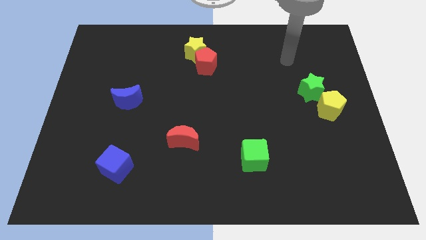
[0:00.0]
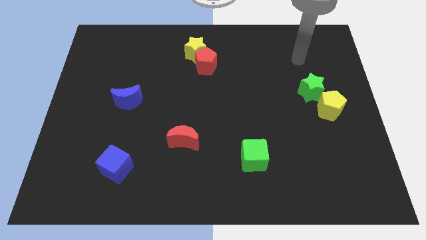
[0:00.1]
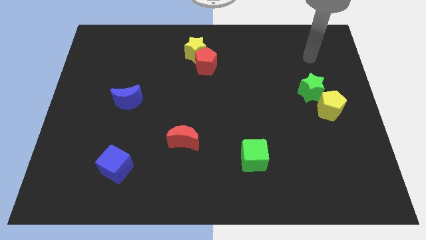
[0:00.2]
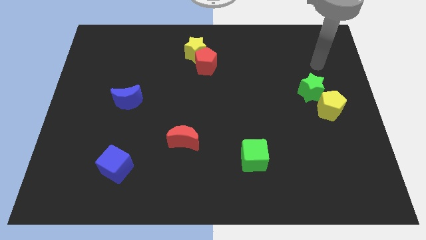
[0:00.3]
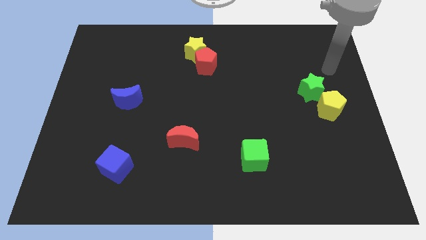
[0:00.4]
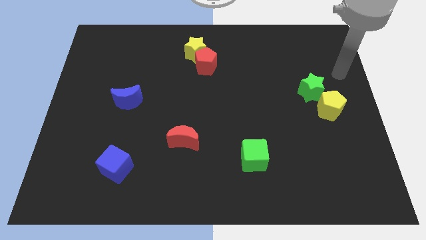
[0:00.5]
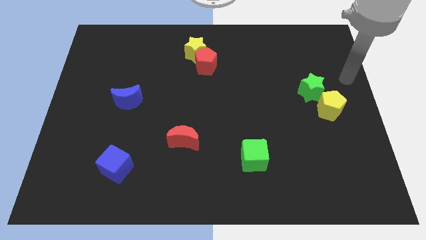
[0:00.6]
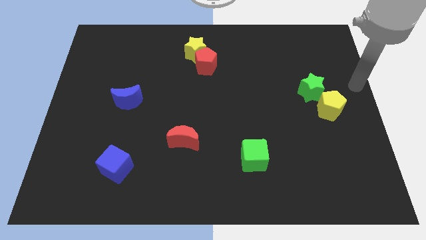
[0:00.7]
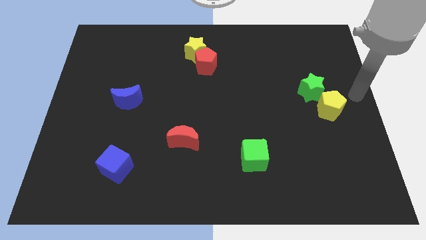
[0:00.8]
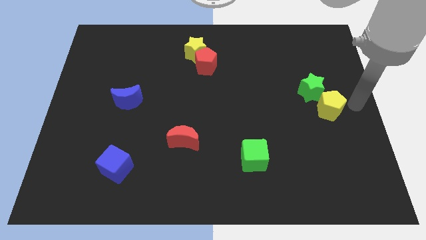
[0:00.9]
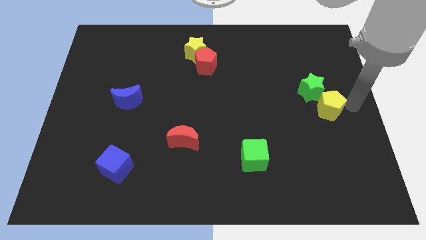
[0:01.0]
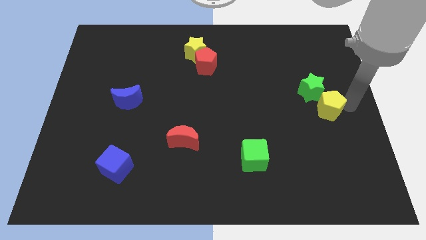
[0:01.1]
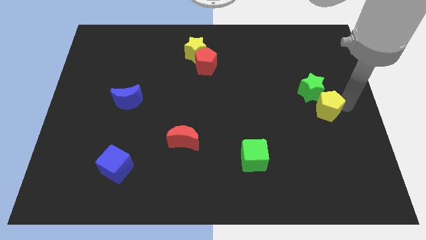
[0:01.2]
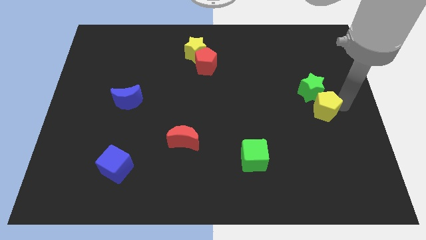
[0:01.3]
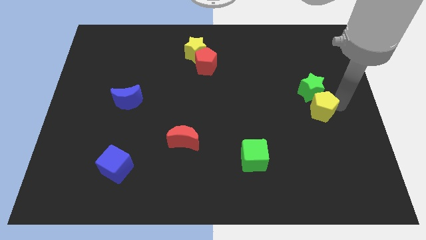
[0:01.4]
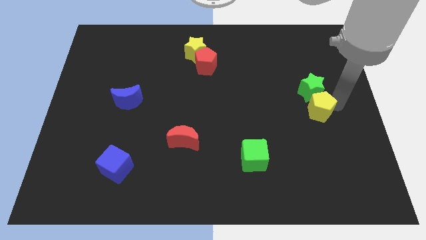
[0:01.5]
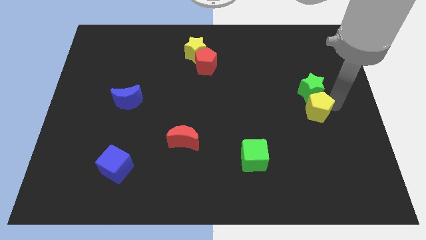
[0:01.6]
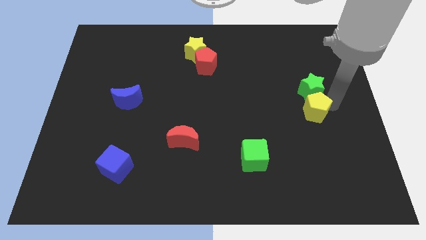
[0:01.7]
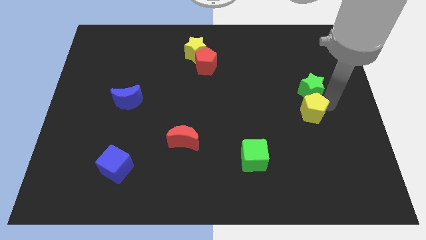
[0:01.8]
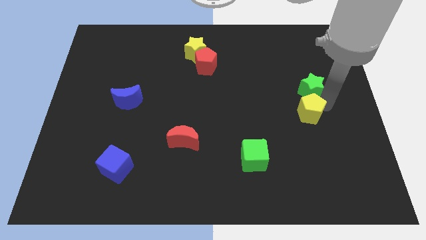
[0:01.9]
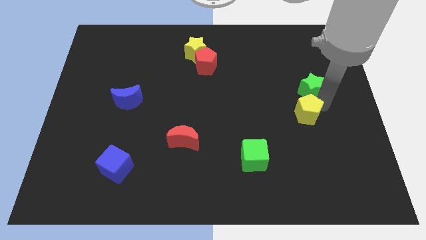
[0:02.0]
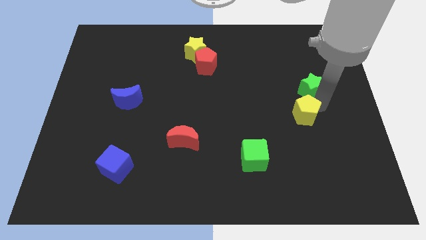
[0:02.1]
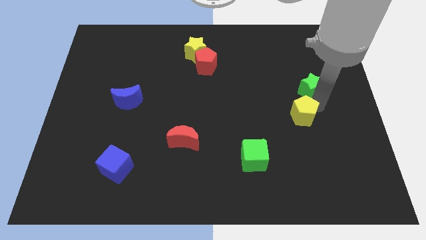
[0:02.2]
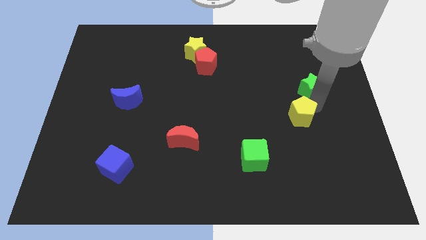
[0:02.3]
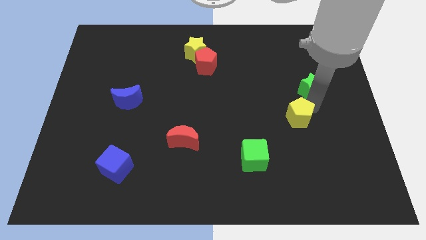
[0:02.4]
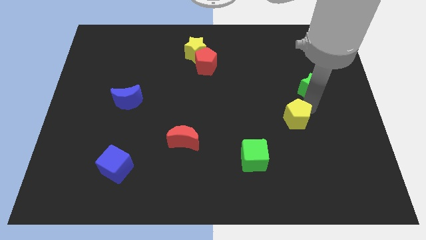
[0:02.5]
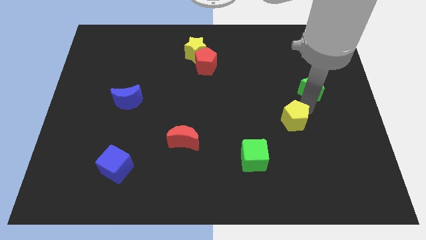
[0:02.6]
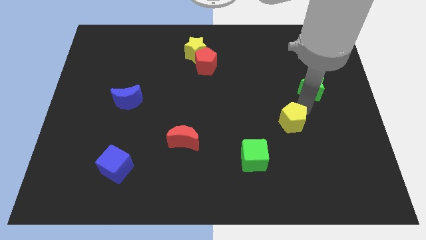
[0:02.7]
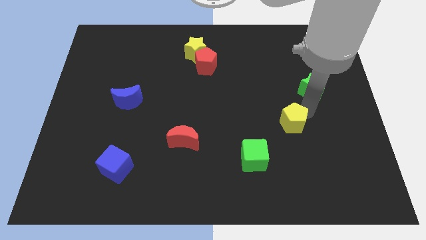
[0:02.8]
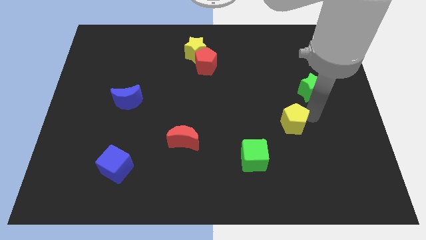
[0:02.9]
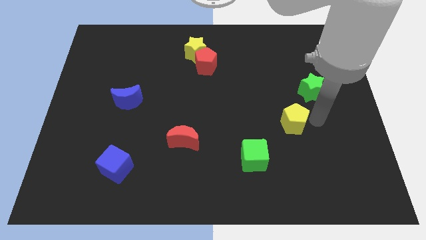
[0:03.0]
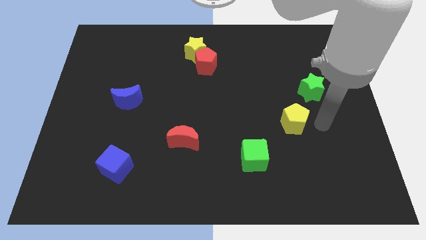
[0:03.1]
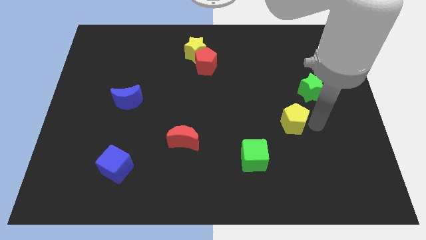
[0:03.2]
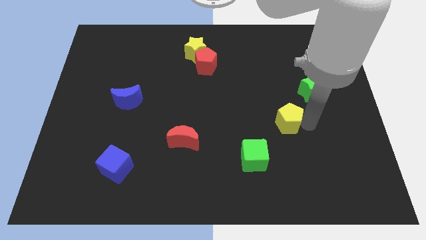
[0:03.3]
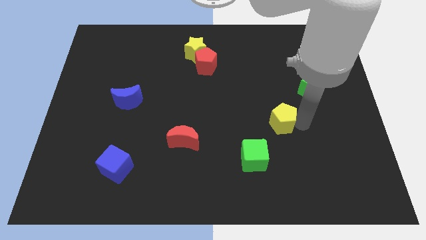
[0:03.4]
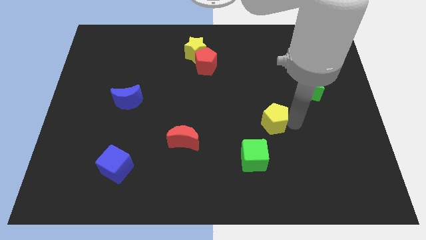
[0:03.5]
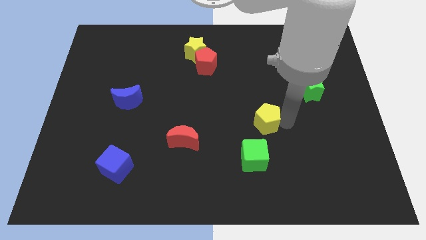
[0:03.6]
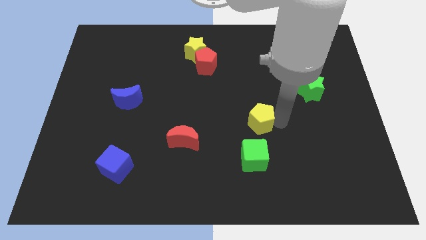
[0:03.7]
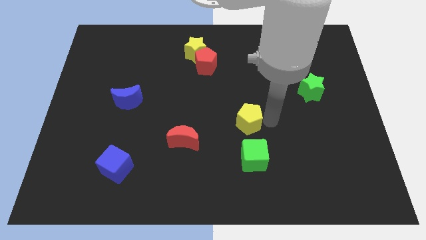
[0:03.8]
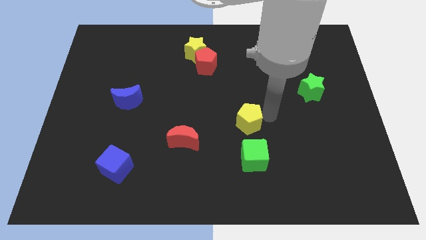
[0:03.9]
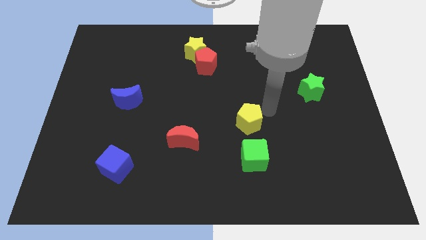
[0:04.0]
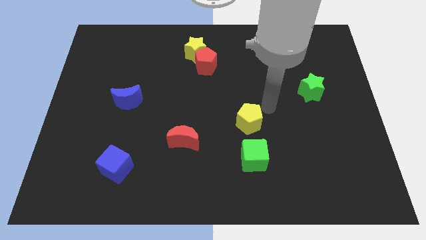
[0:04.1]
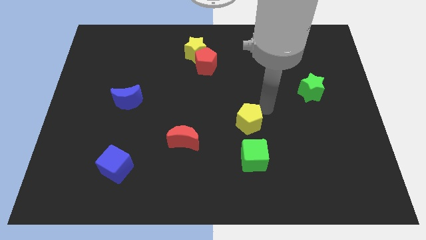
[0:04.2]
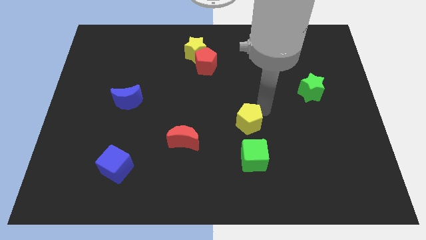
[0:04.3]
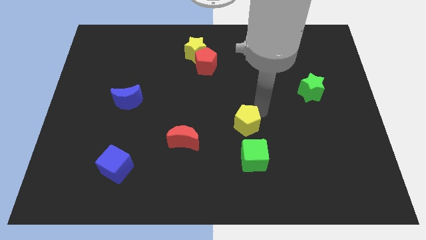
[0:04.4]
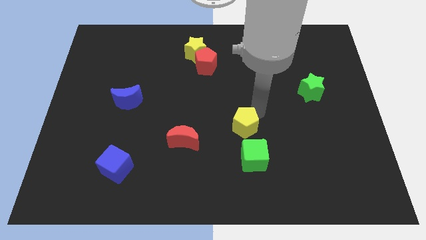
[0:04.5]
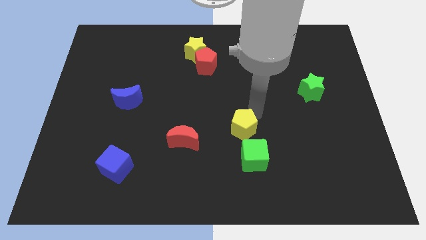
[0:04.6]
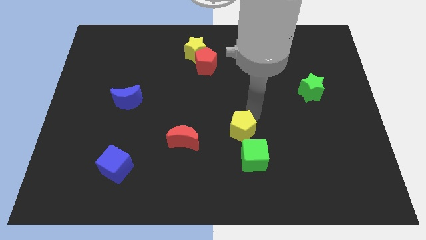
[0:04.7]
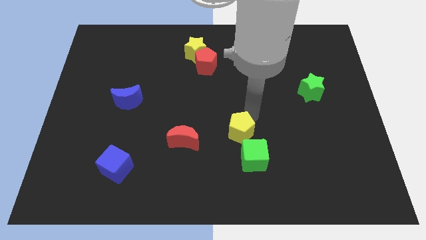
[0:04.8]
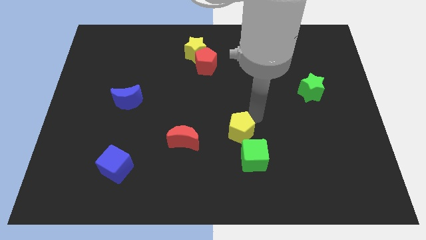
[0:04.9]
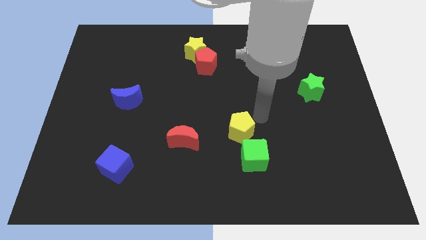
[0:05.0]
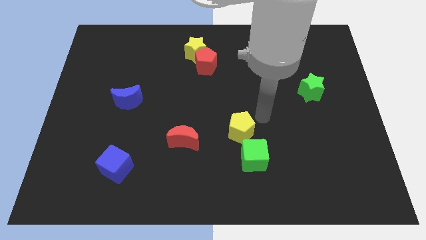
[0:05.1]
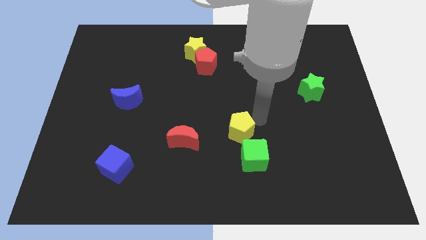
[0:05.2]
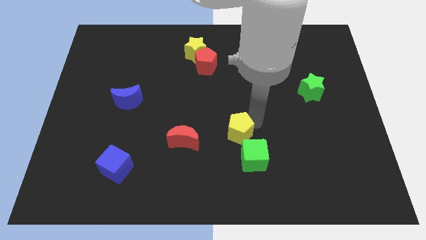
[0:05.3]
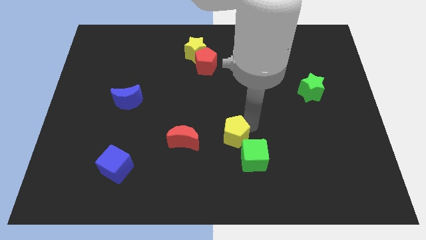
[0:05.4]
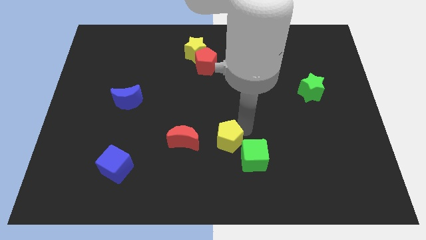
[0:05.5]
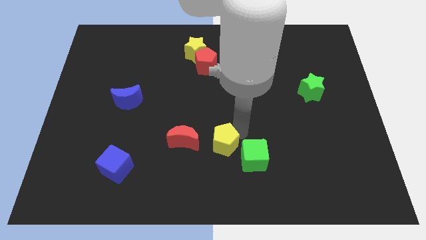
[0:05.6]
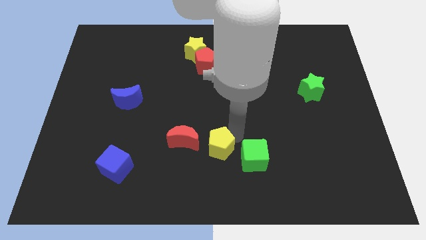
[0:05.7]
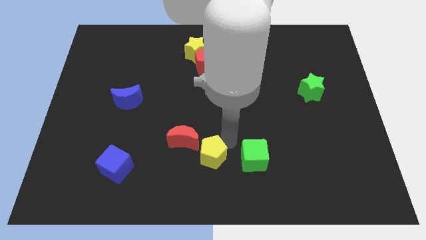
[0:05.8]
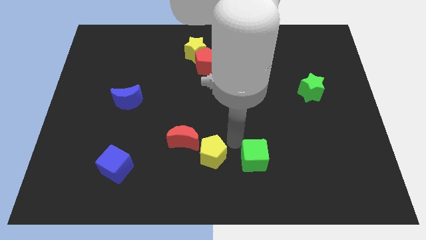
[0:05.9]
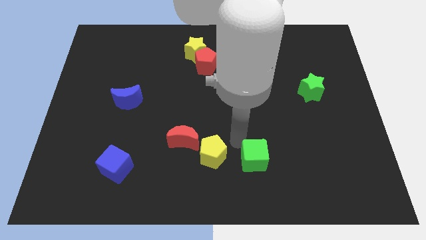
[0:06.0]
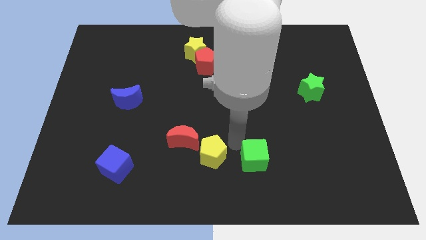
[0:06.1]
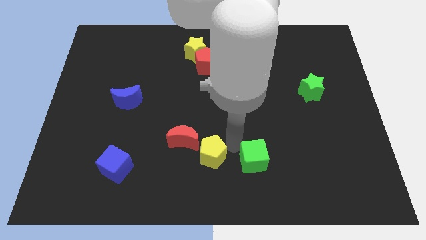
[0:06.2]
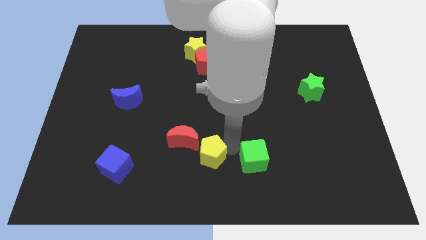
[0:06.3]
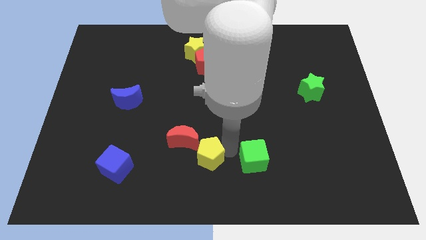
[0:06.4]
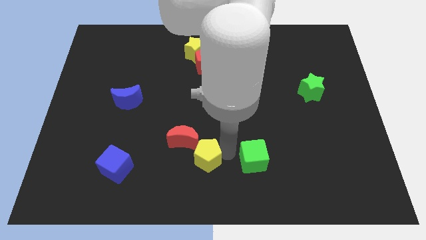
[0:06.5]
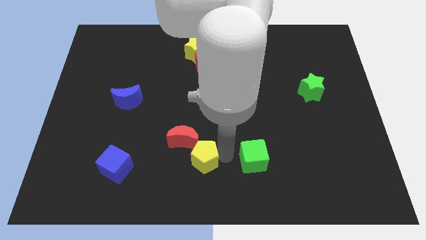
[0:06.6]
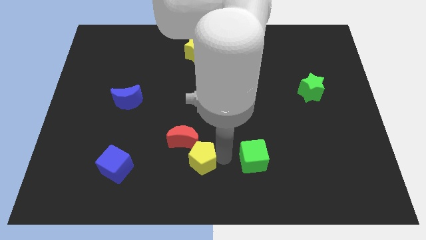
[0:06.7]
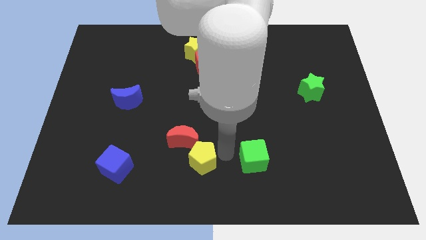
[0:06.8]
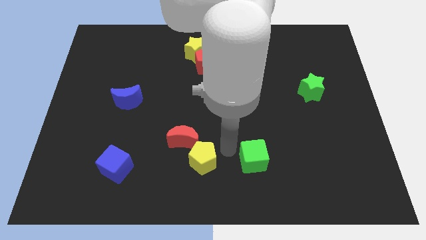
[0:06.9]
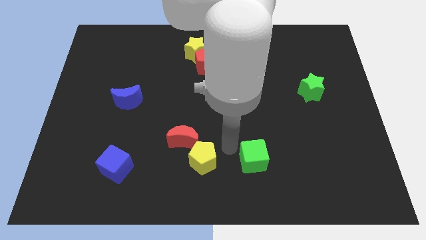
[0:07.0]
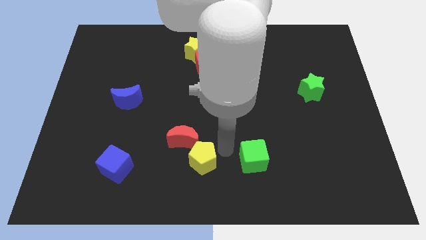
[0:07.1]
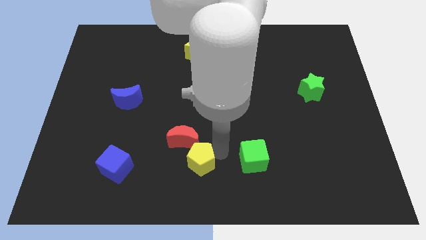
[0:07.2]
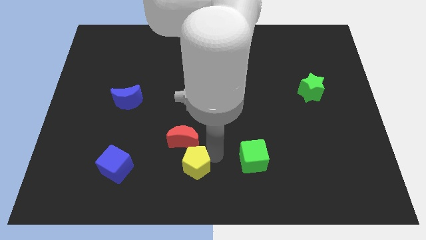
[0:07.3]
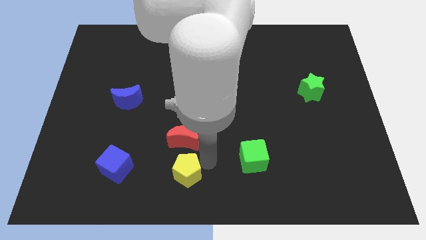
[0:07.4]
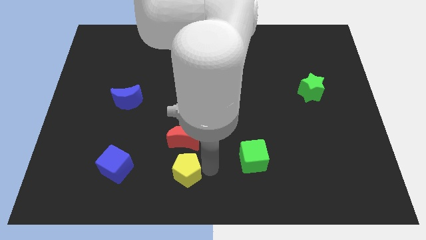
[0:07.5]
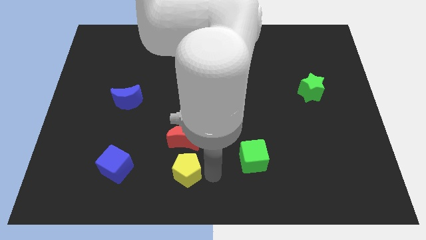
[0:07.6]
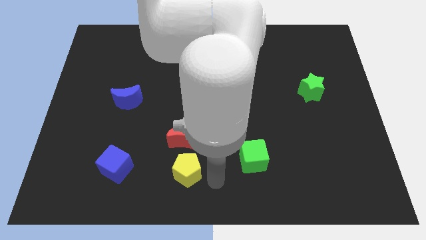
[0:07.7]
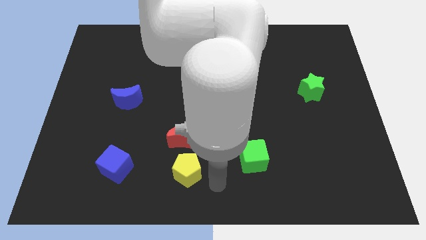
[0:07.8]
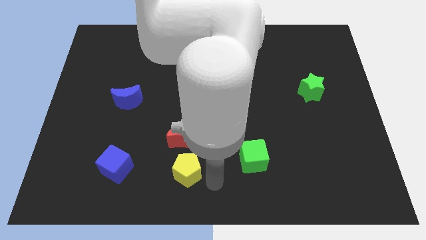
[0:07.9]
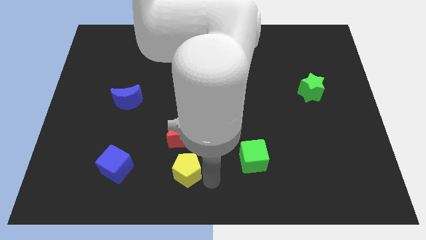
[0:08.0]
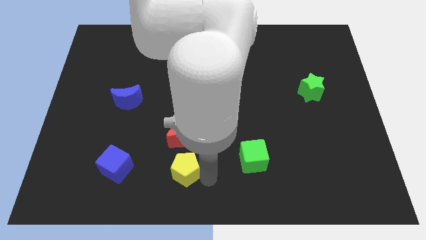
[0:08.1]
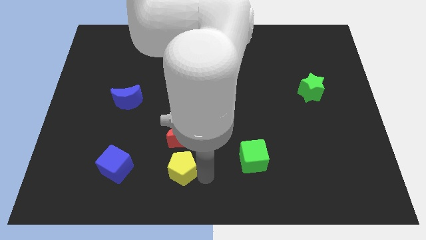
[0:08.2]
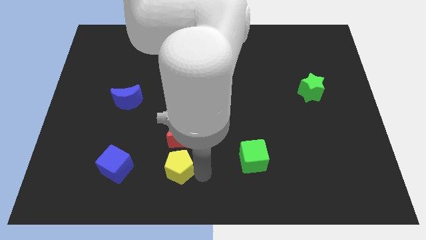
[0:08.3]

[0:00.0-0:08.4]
move the yellow pentagon to the bottom left side of the red moon
